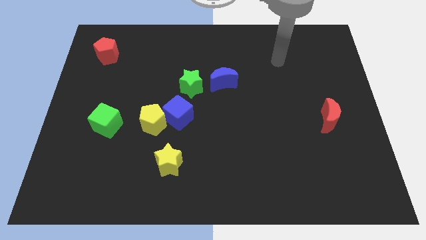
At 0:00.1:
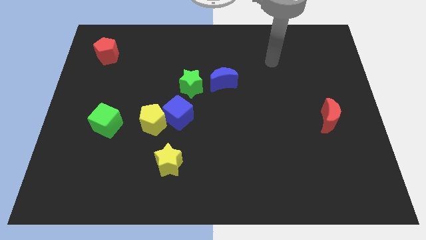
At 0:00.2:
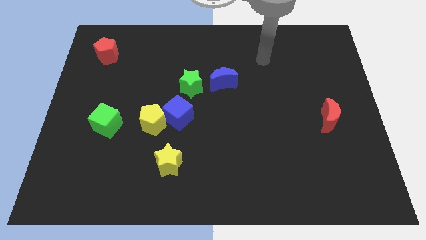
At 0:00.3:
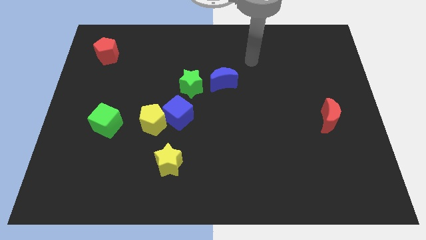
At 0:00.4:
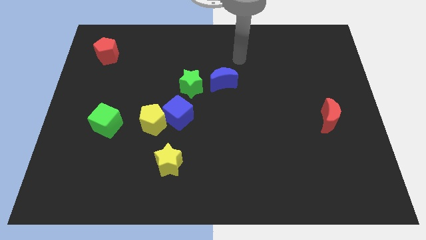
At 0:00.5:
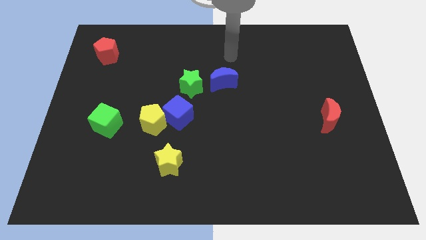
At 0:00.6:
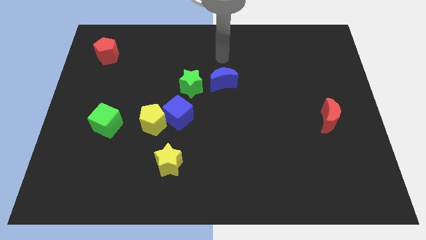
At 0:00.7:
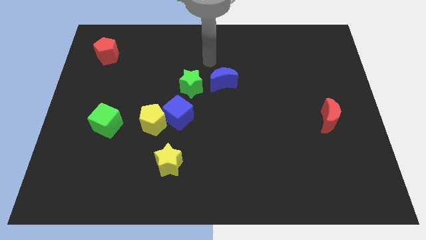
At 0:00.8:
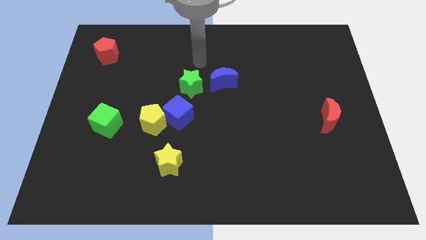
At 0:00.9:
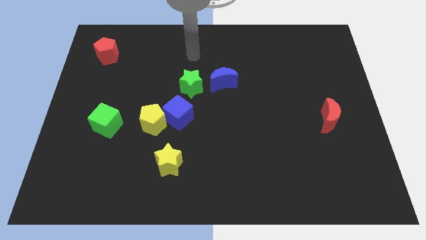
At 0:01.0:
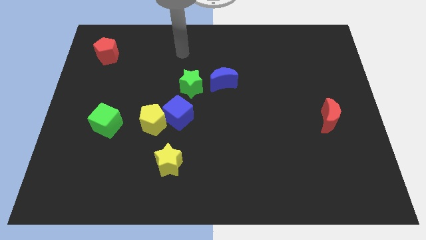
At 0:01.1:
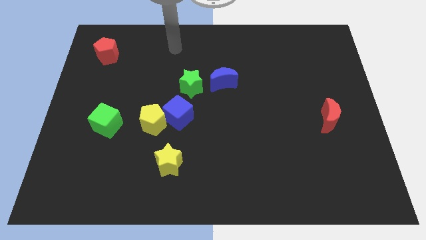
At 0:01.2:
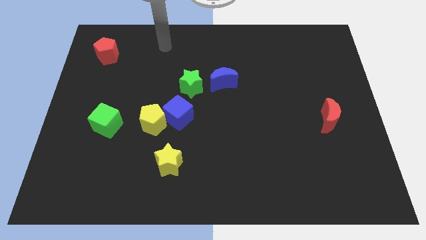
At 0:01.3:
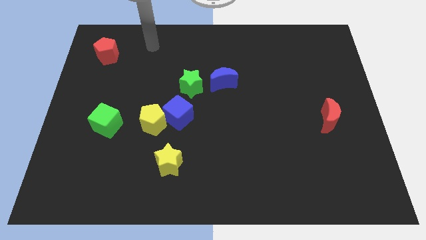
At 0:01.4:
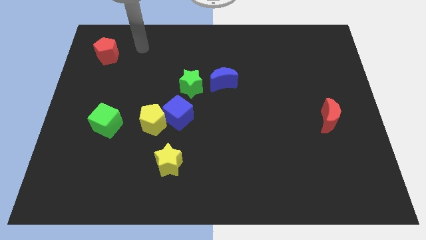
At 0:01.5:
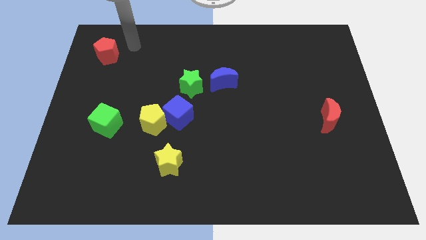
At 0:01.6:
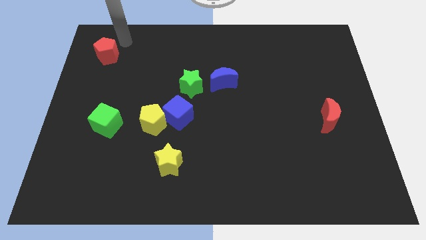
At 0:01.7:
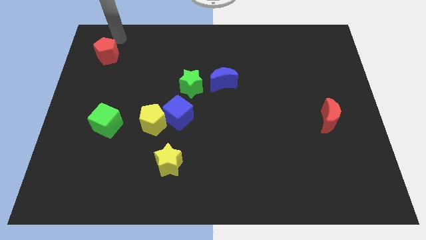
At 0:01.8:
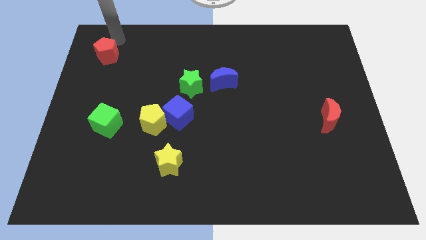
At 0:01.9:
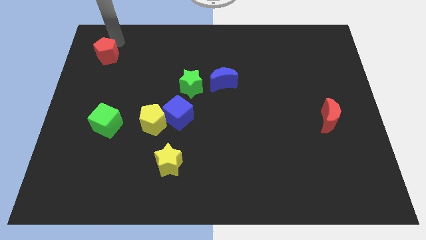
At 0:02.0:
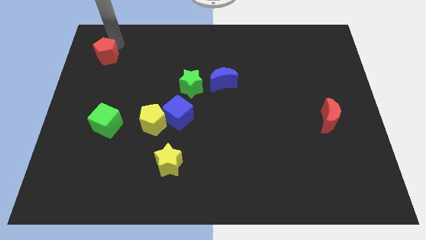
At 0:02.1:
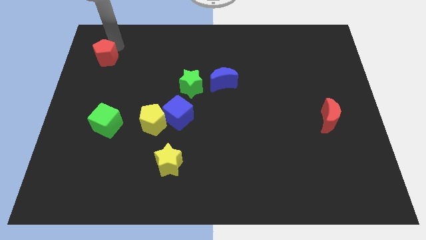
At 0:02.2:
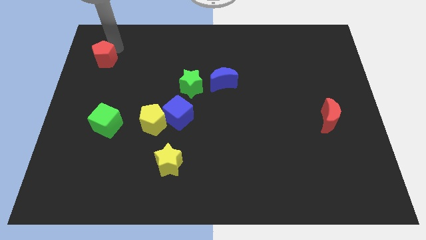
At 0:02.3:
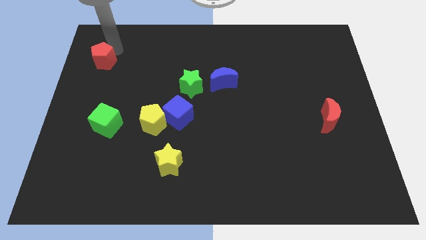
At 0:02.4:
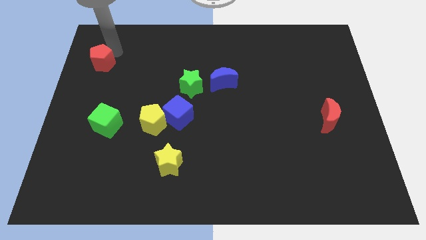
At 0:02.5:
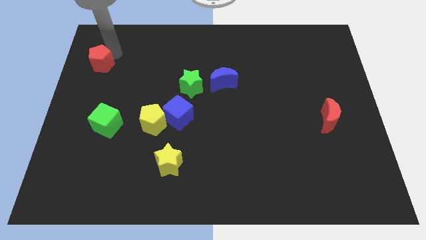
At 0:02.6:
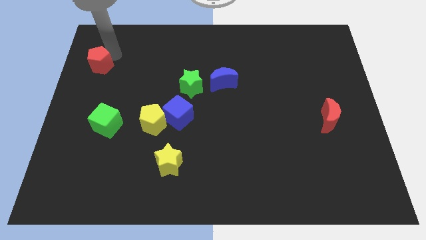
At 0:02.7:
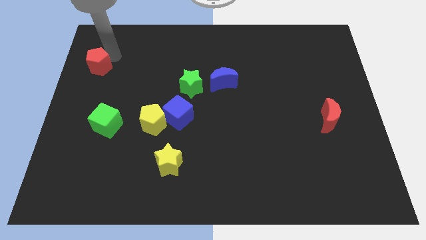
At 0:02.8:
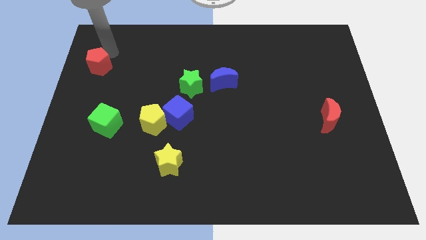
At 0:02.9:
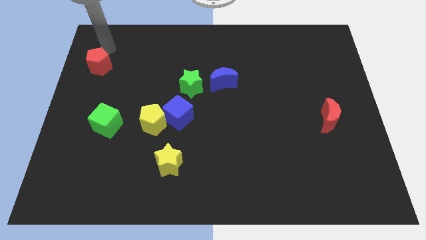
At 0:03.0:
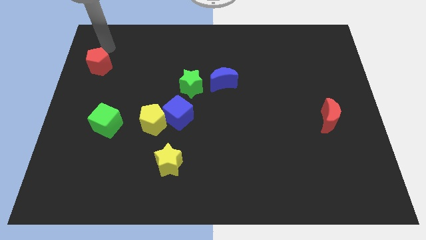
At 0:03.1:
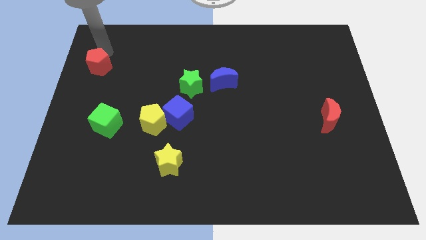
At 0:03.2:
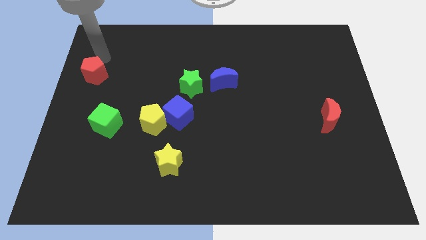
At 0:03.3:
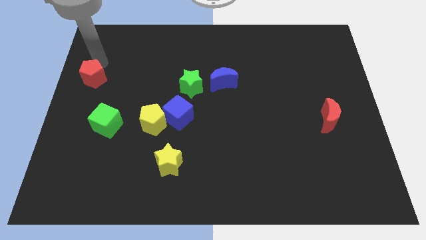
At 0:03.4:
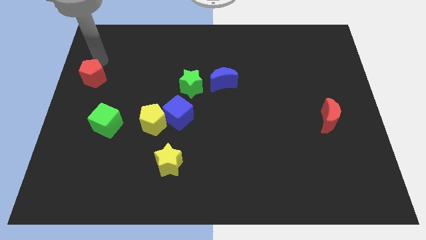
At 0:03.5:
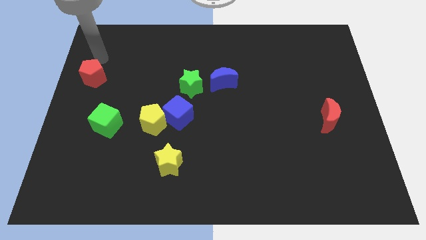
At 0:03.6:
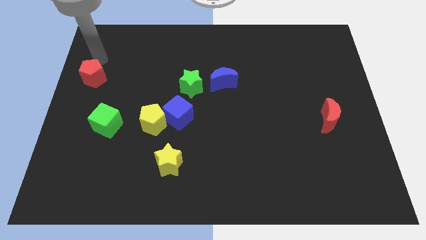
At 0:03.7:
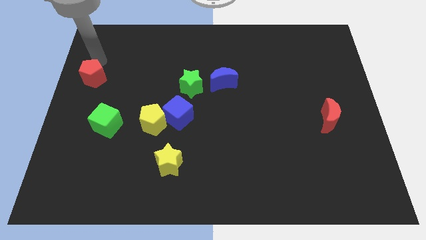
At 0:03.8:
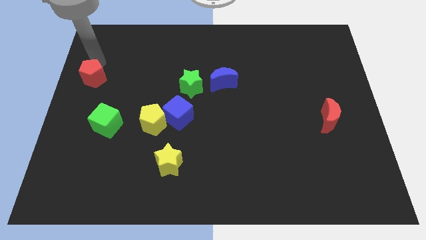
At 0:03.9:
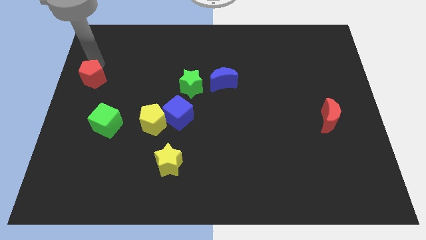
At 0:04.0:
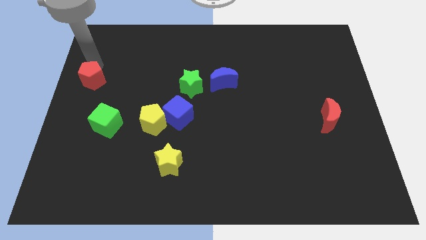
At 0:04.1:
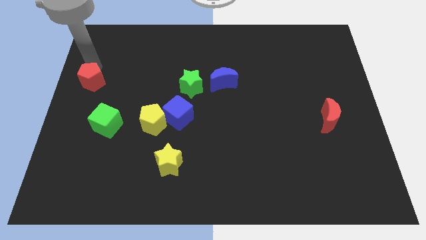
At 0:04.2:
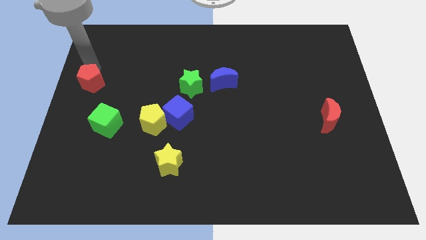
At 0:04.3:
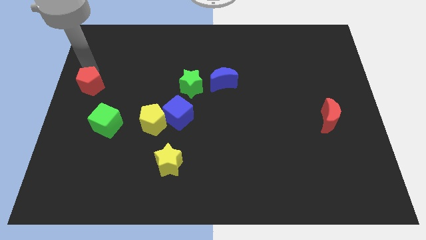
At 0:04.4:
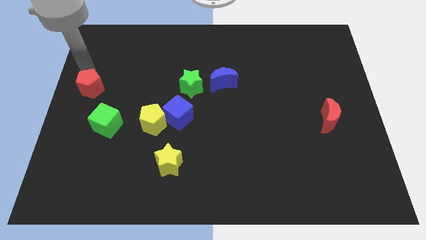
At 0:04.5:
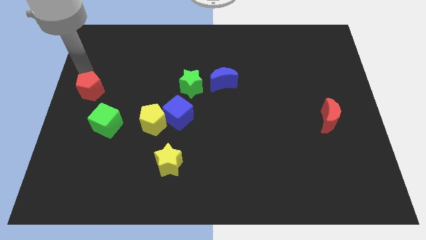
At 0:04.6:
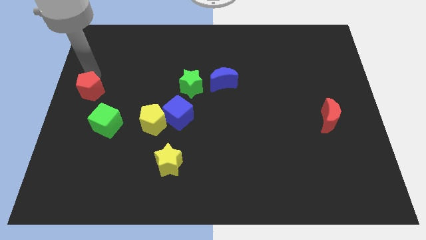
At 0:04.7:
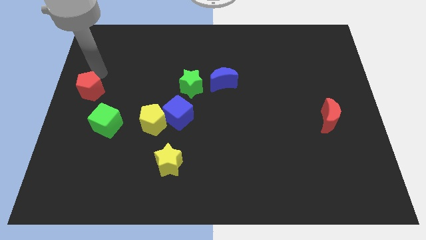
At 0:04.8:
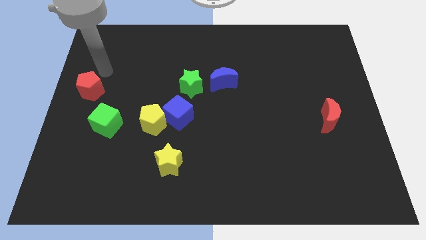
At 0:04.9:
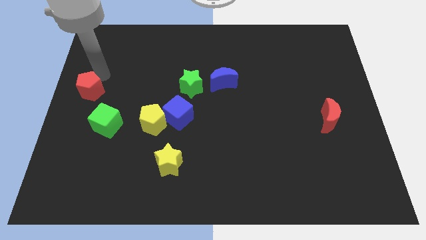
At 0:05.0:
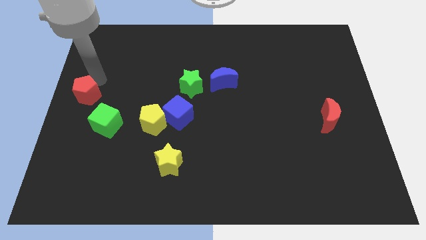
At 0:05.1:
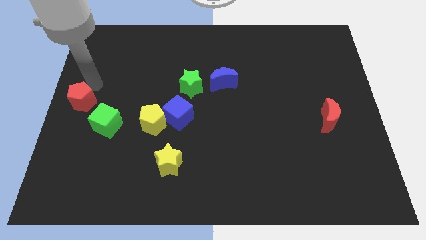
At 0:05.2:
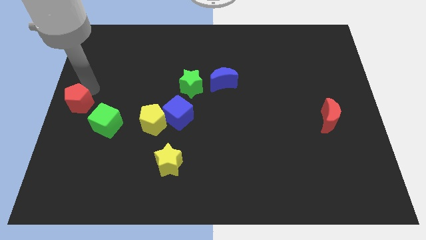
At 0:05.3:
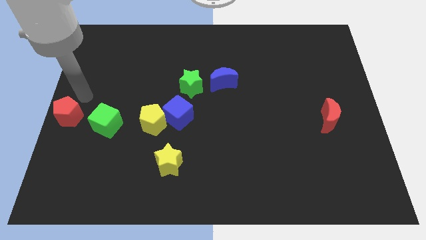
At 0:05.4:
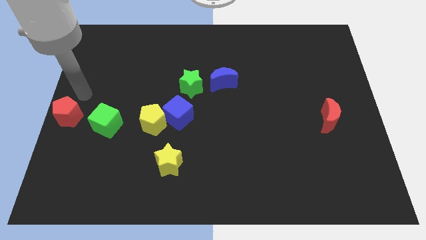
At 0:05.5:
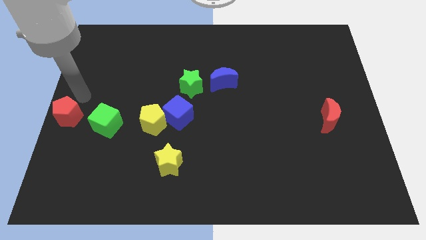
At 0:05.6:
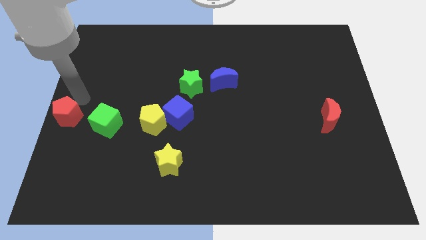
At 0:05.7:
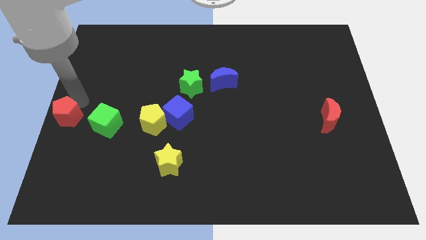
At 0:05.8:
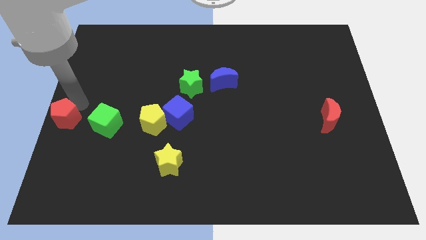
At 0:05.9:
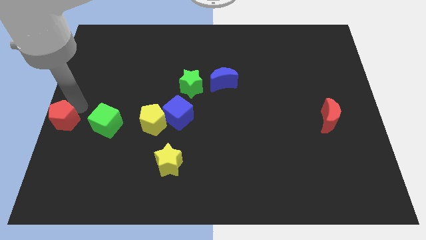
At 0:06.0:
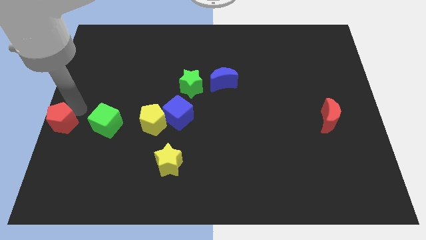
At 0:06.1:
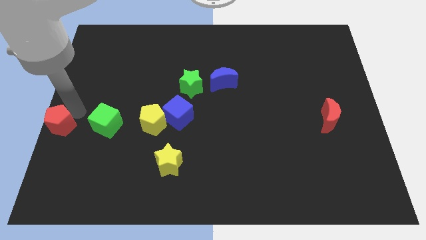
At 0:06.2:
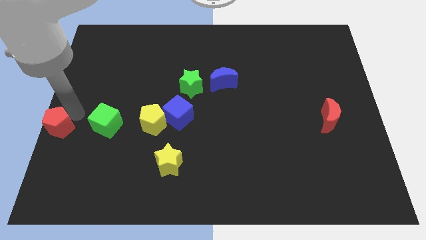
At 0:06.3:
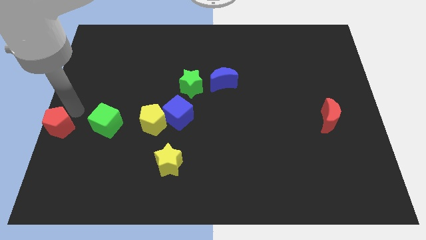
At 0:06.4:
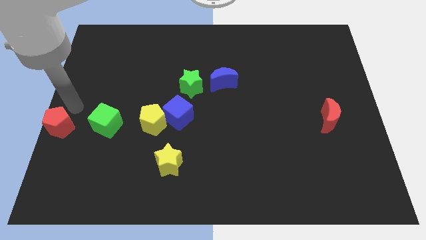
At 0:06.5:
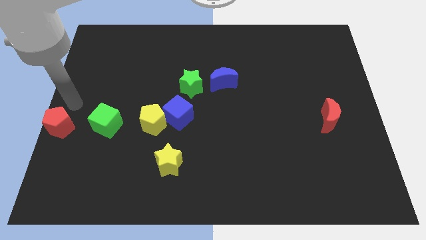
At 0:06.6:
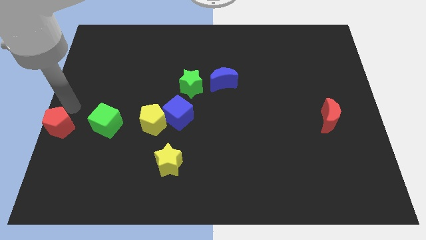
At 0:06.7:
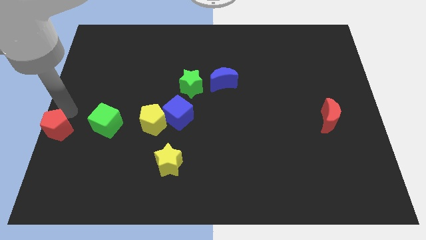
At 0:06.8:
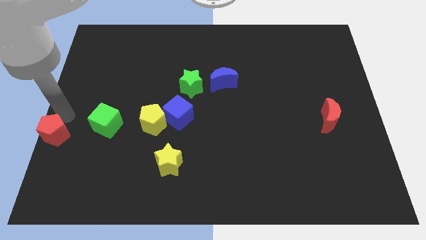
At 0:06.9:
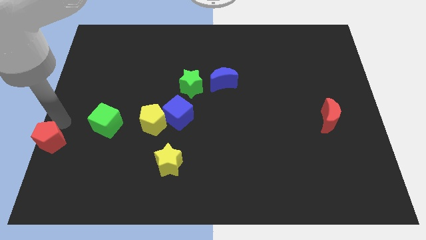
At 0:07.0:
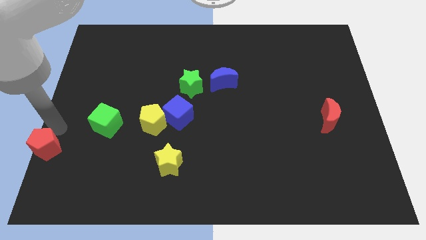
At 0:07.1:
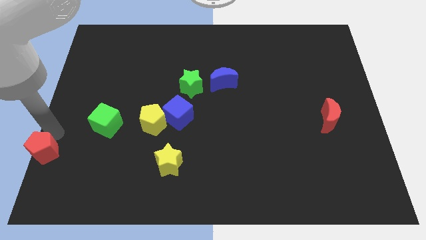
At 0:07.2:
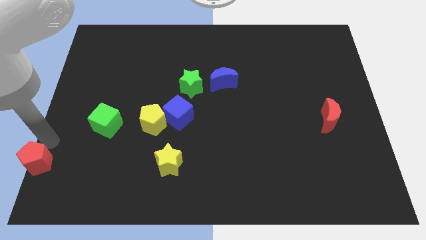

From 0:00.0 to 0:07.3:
move the red pentagon to the bottom left

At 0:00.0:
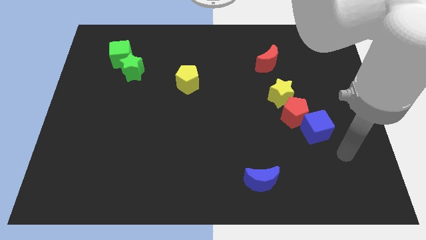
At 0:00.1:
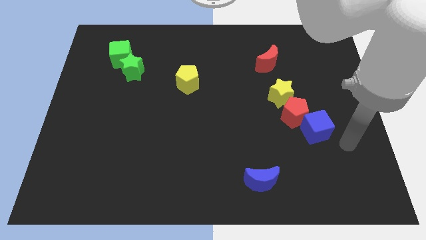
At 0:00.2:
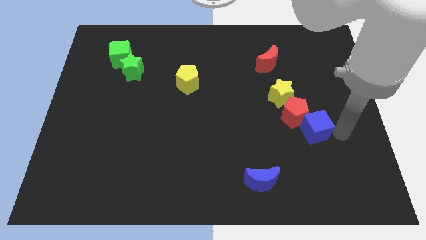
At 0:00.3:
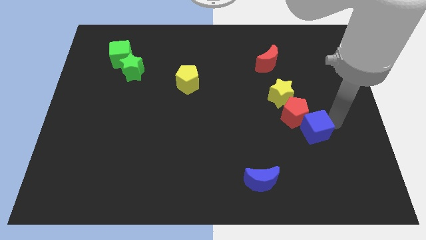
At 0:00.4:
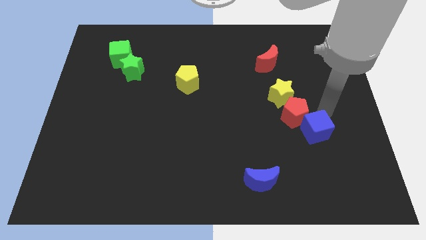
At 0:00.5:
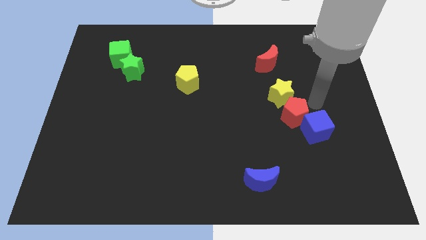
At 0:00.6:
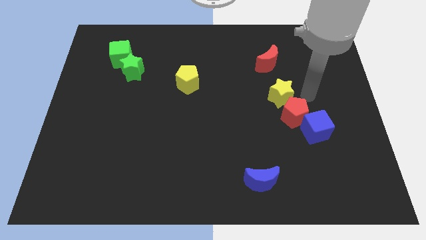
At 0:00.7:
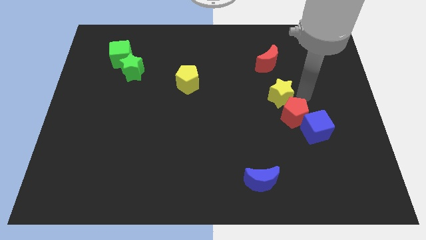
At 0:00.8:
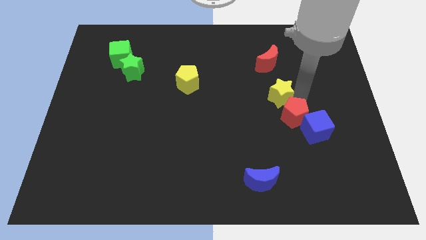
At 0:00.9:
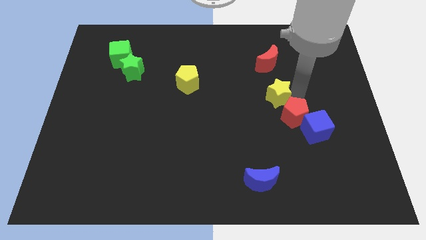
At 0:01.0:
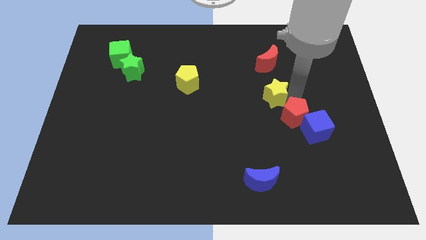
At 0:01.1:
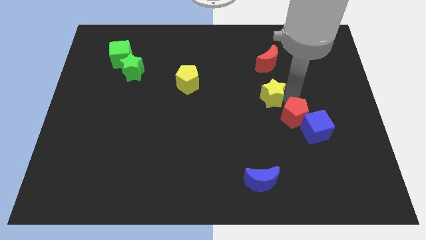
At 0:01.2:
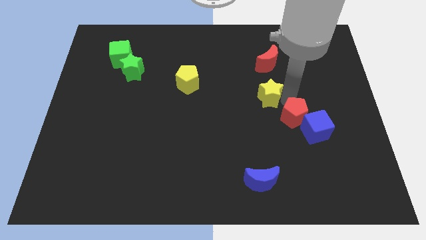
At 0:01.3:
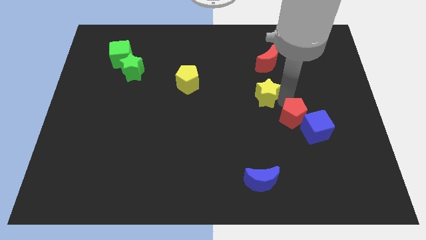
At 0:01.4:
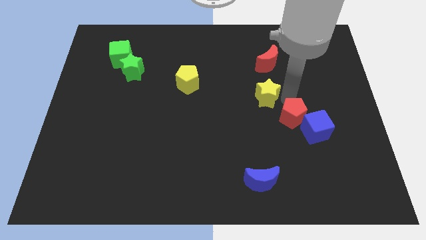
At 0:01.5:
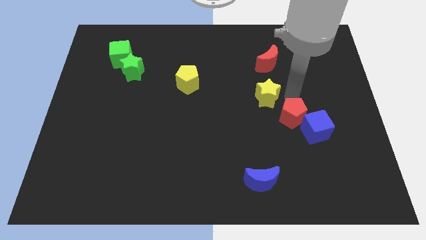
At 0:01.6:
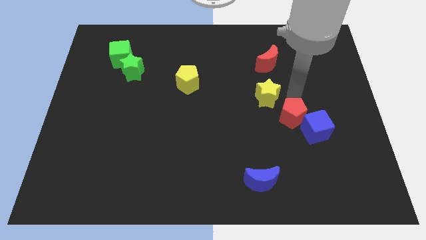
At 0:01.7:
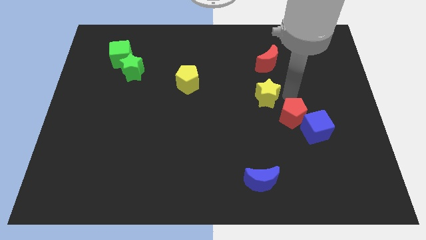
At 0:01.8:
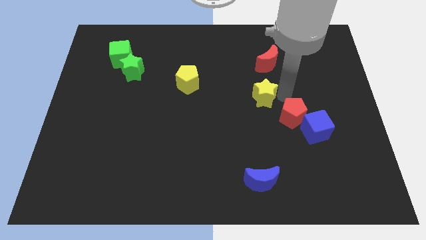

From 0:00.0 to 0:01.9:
push the yellow star to the middle
